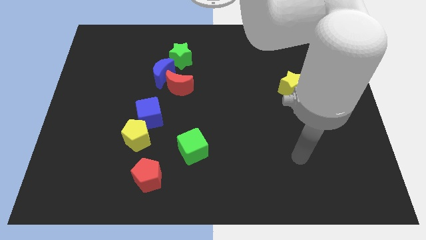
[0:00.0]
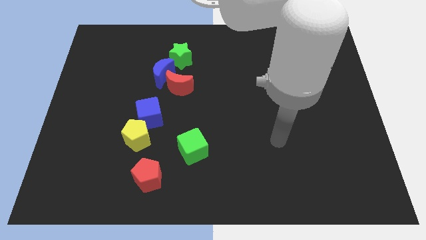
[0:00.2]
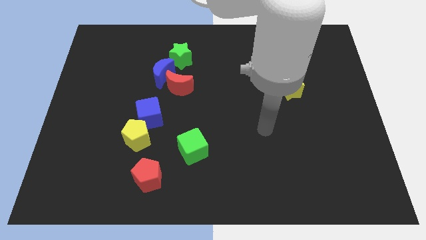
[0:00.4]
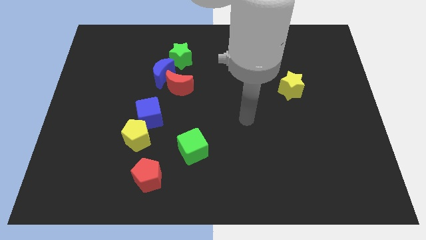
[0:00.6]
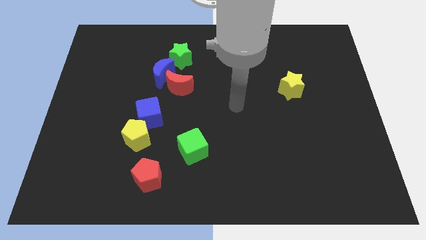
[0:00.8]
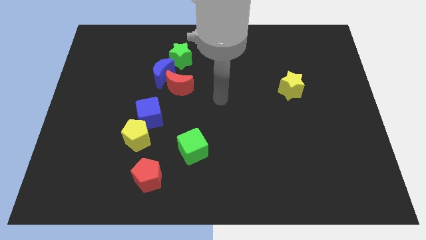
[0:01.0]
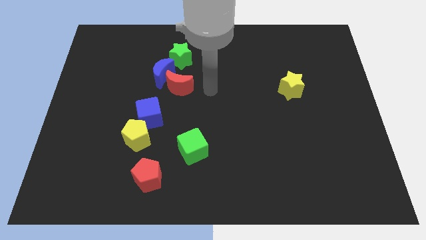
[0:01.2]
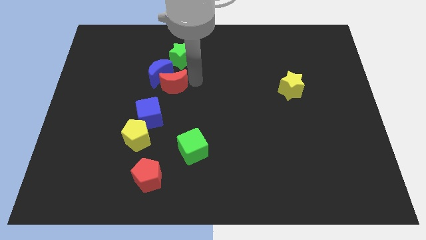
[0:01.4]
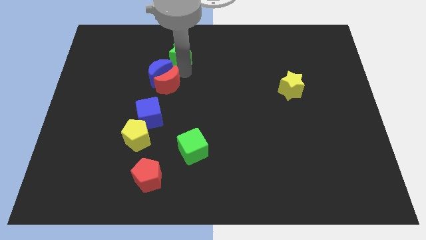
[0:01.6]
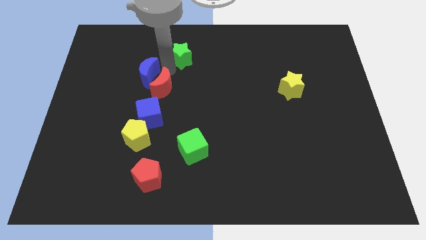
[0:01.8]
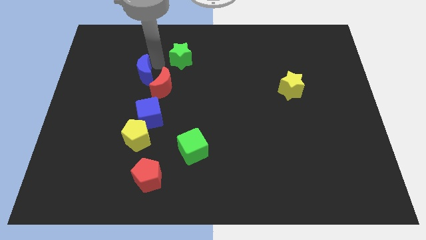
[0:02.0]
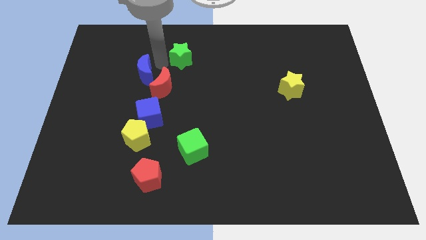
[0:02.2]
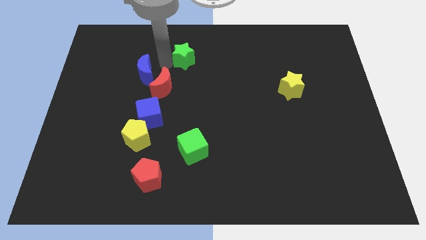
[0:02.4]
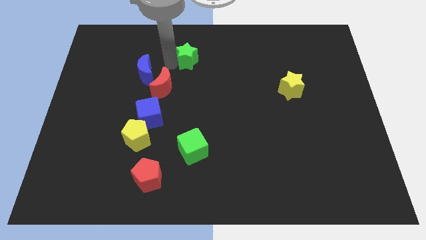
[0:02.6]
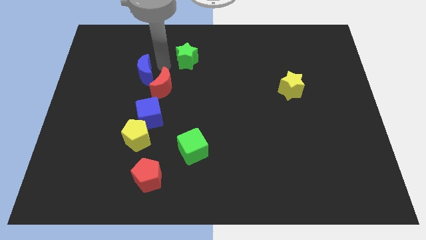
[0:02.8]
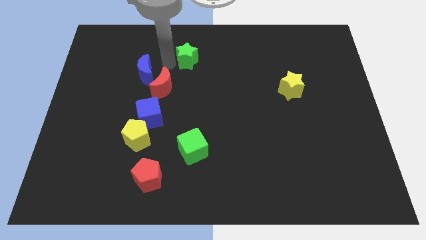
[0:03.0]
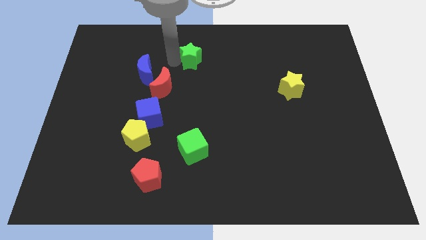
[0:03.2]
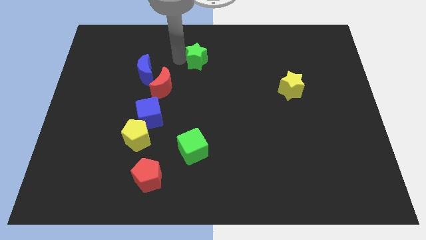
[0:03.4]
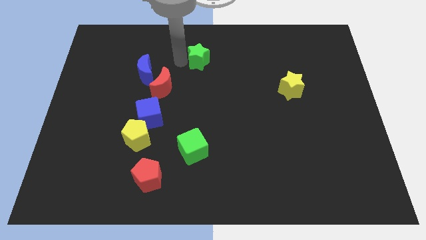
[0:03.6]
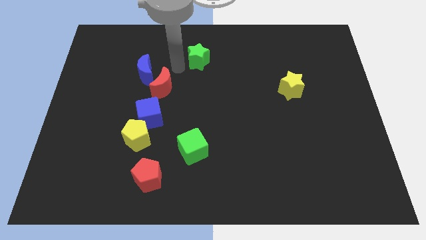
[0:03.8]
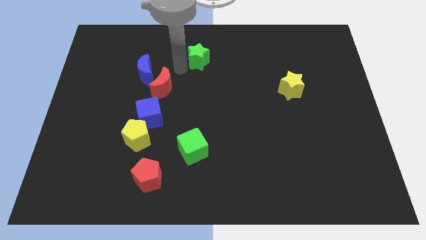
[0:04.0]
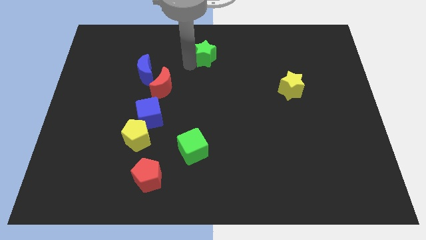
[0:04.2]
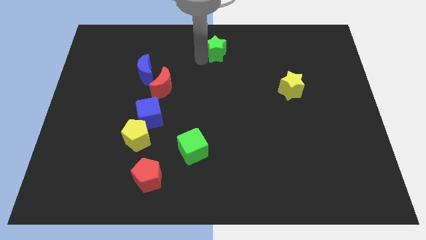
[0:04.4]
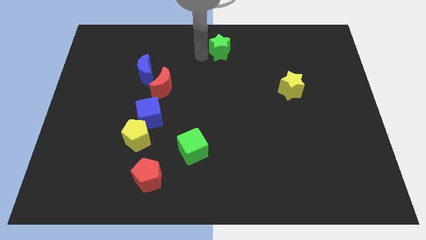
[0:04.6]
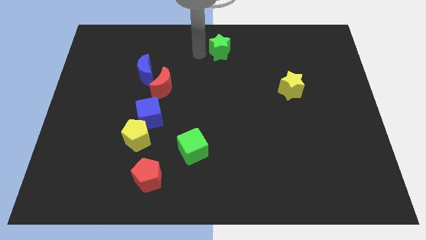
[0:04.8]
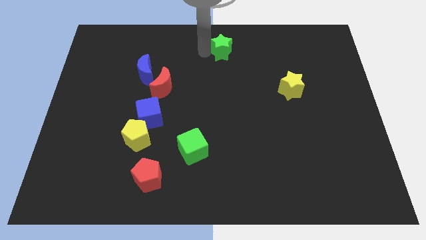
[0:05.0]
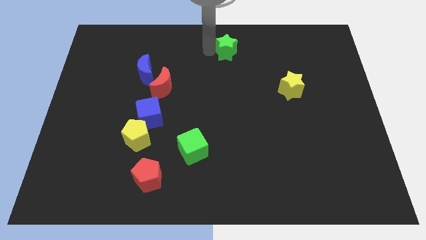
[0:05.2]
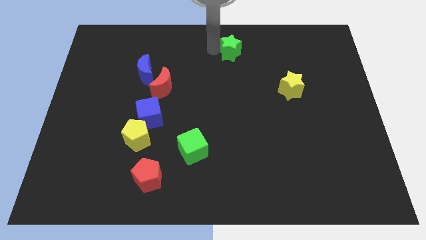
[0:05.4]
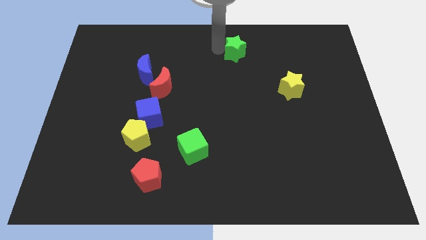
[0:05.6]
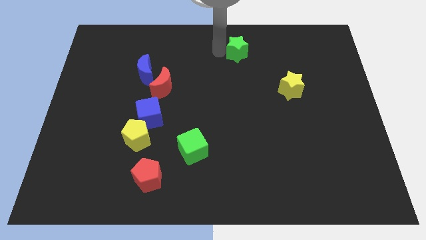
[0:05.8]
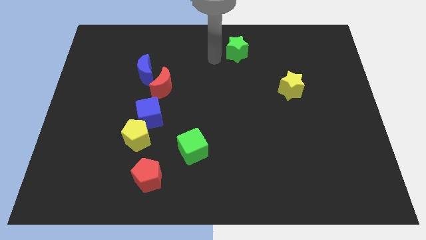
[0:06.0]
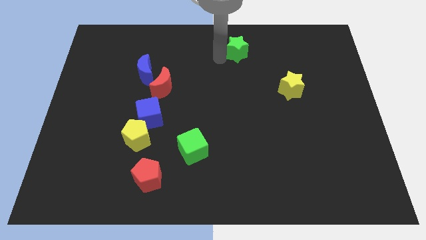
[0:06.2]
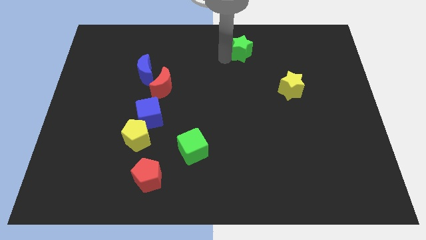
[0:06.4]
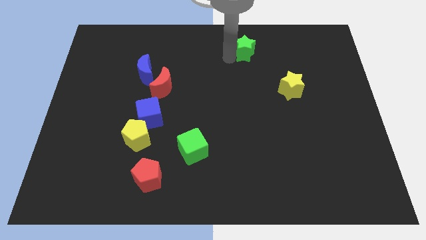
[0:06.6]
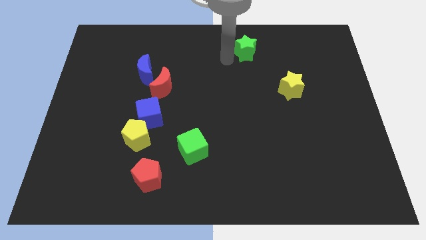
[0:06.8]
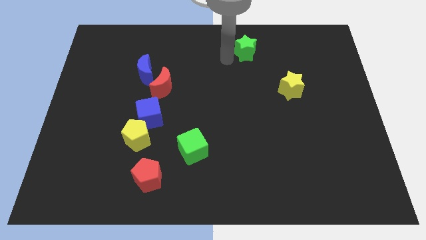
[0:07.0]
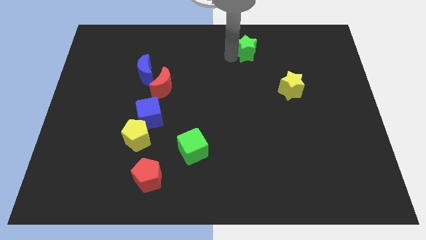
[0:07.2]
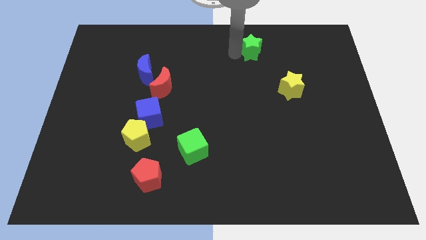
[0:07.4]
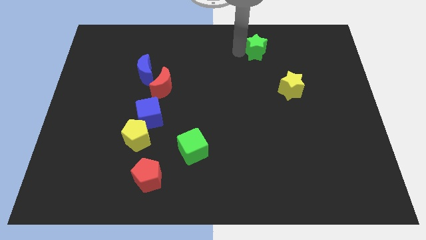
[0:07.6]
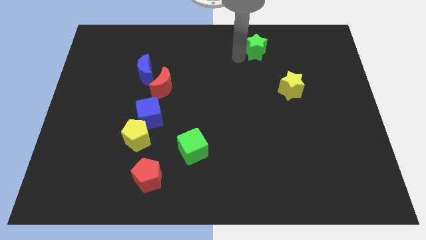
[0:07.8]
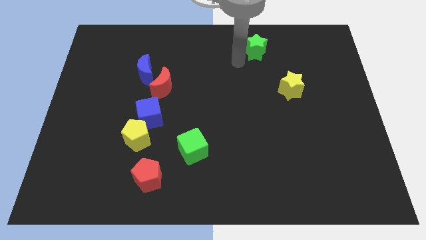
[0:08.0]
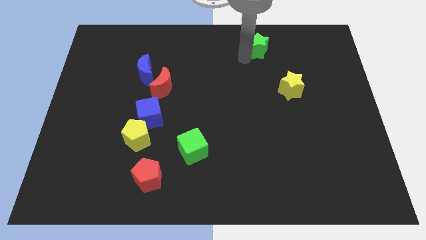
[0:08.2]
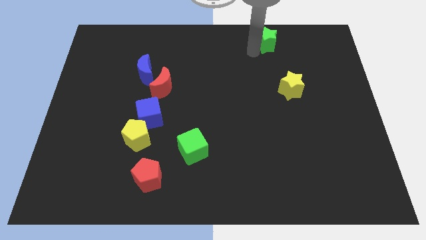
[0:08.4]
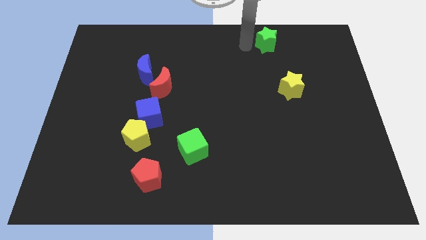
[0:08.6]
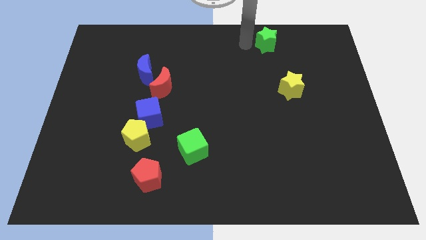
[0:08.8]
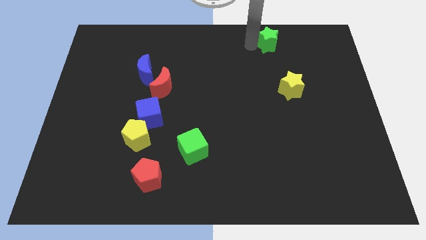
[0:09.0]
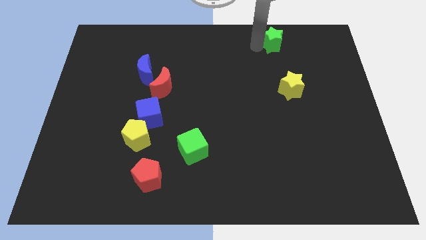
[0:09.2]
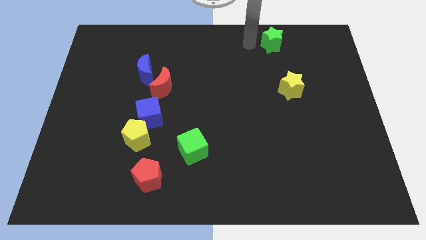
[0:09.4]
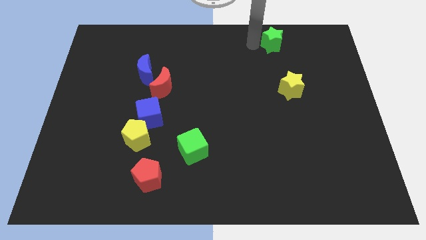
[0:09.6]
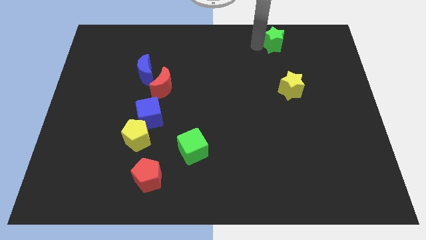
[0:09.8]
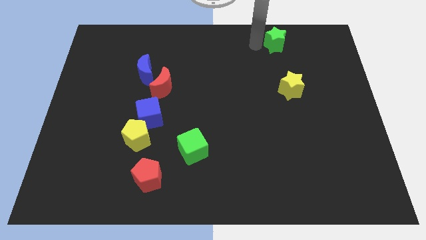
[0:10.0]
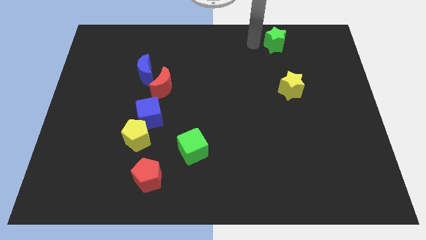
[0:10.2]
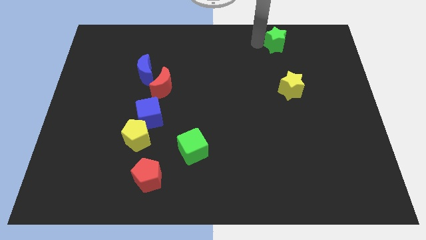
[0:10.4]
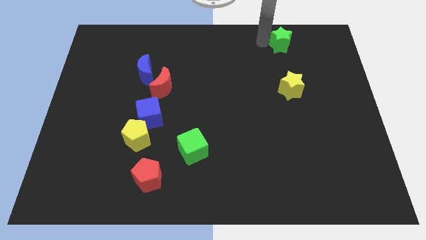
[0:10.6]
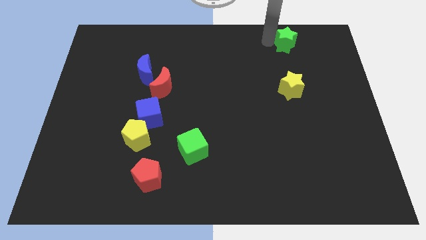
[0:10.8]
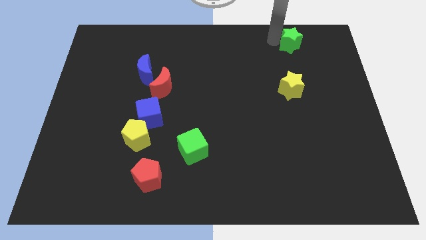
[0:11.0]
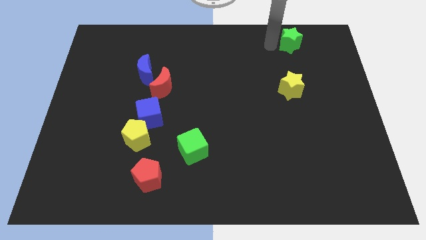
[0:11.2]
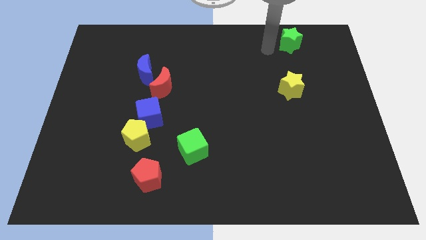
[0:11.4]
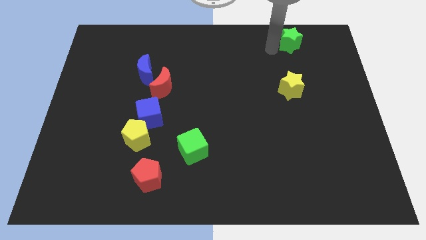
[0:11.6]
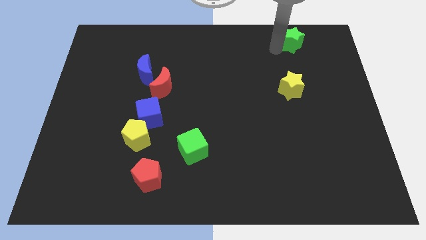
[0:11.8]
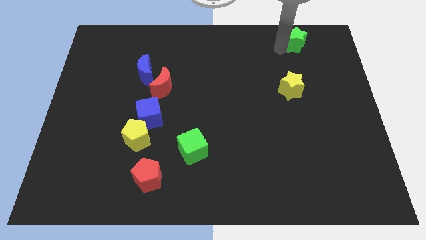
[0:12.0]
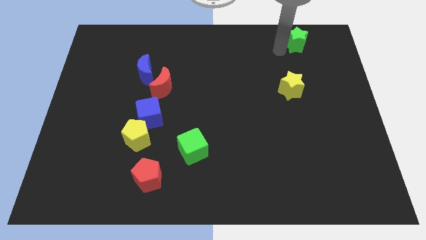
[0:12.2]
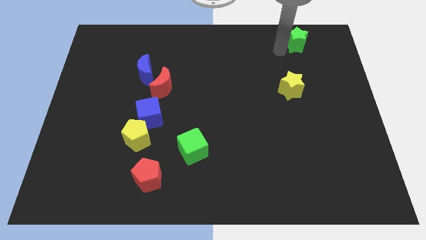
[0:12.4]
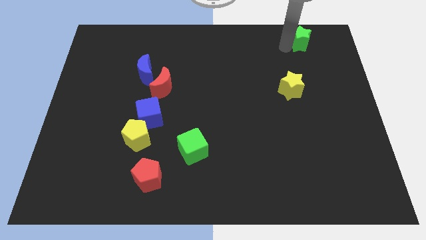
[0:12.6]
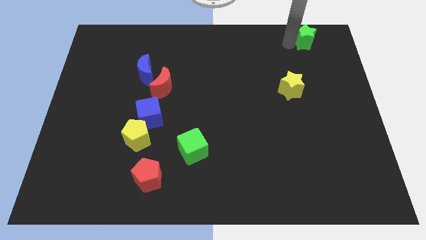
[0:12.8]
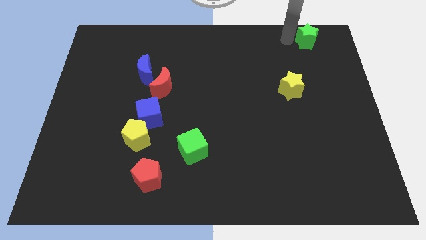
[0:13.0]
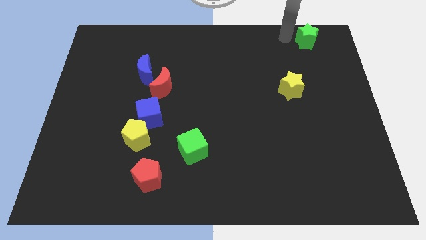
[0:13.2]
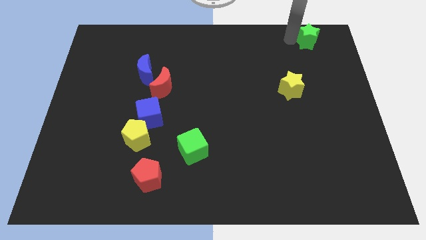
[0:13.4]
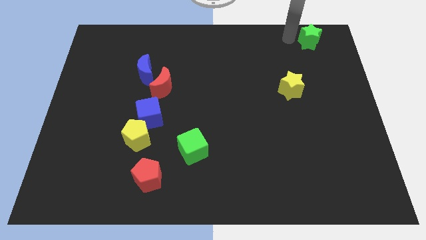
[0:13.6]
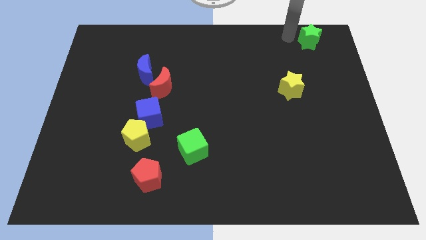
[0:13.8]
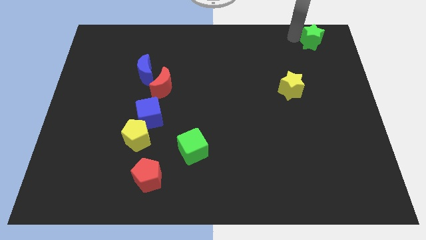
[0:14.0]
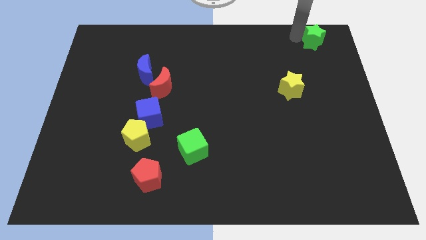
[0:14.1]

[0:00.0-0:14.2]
push the green star to the upper right corner
